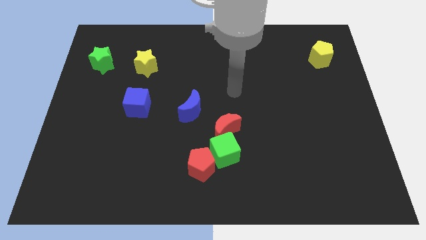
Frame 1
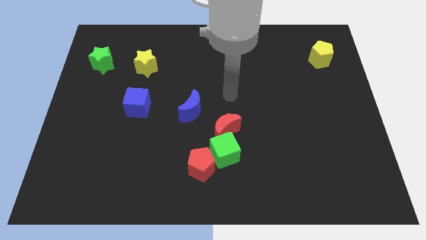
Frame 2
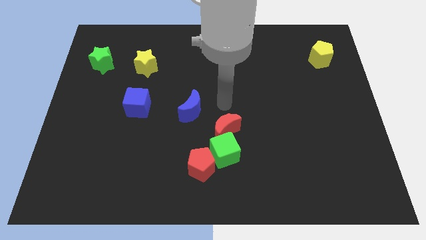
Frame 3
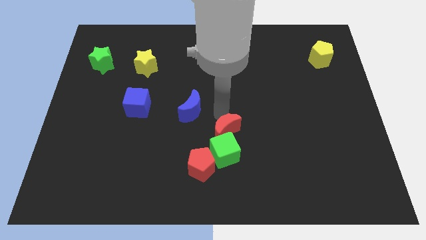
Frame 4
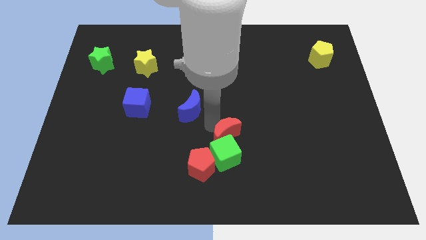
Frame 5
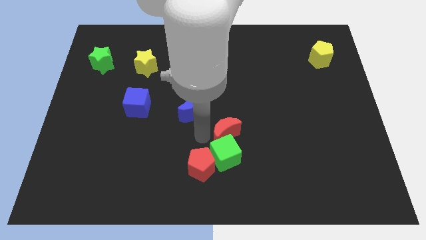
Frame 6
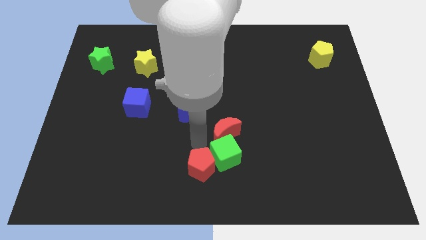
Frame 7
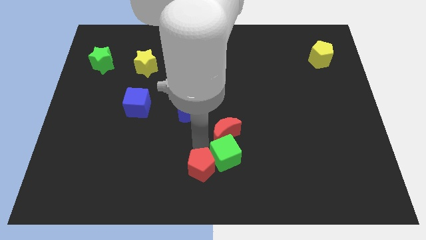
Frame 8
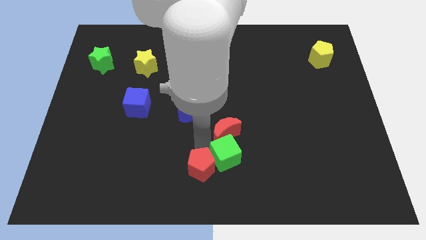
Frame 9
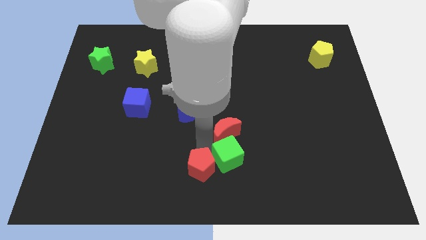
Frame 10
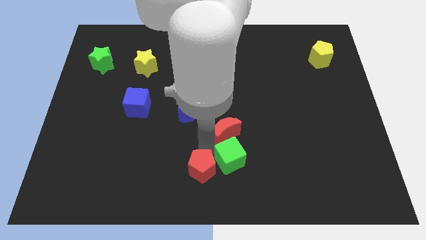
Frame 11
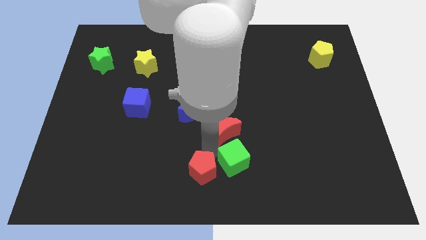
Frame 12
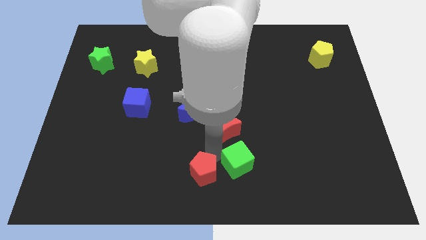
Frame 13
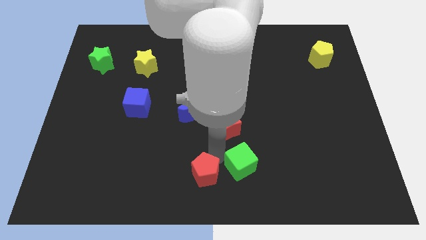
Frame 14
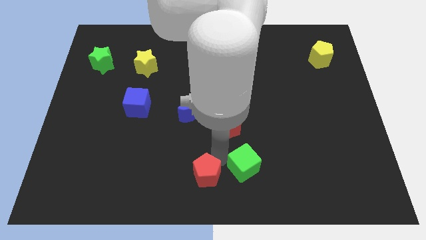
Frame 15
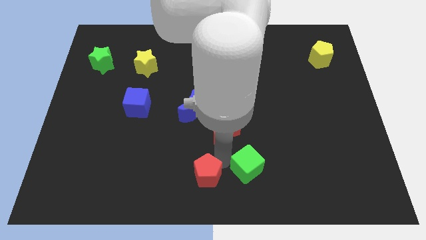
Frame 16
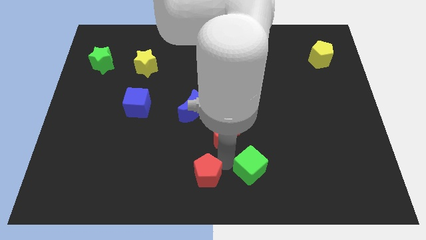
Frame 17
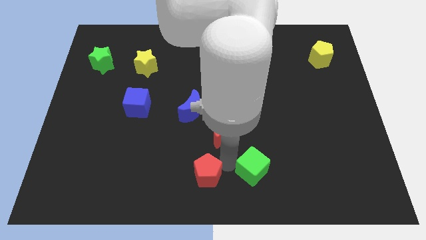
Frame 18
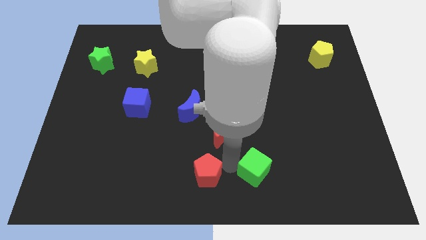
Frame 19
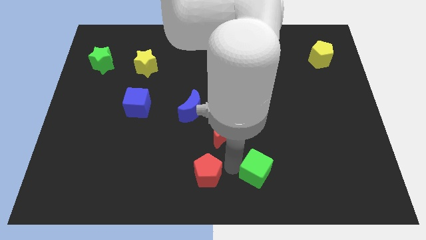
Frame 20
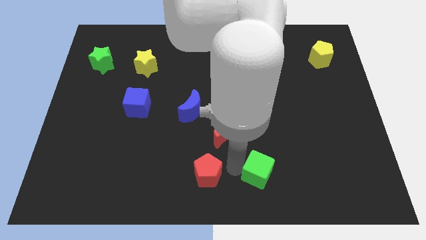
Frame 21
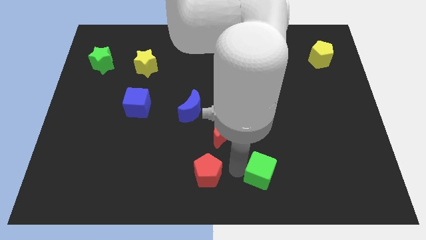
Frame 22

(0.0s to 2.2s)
pull the green cube apart from the red moon and red pentagon

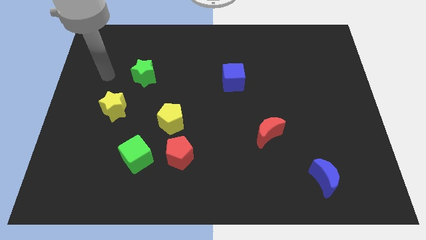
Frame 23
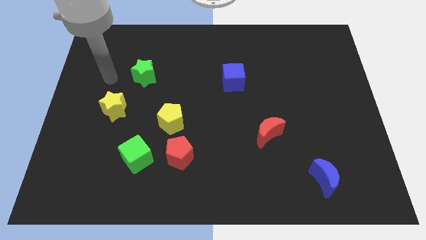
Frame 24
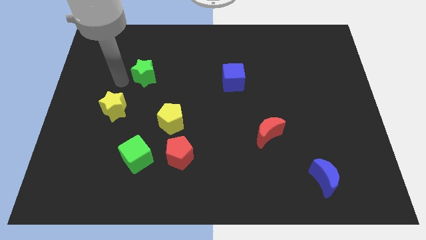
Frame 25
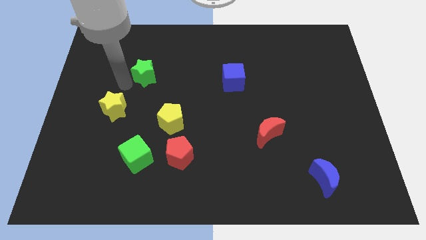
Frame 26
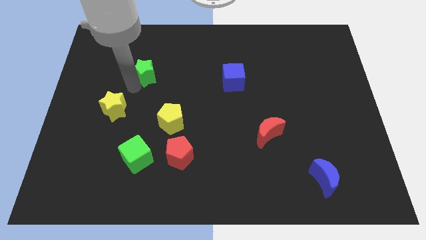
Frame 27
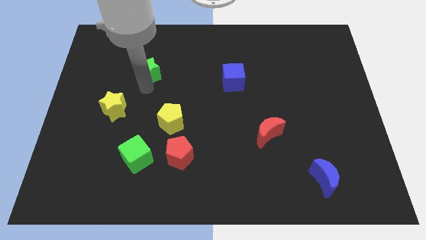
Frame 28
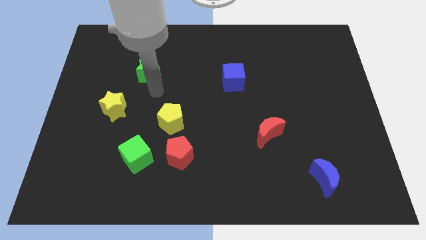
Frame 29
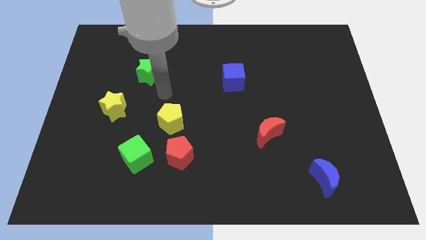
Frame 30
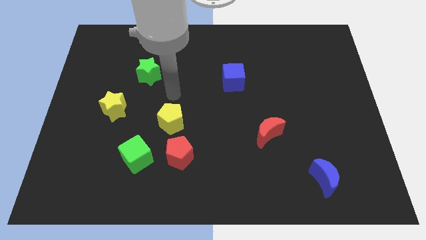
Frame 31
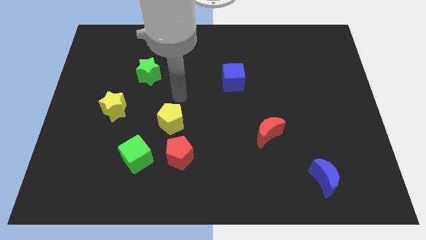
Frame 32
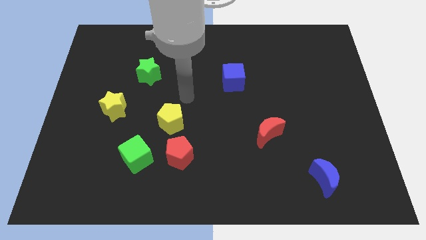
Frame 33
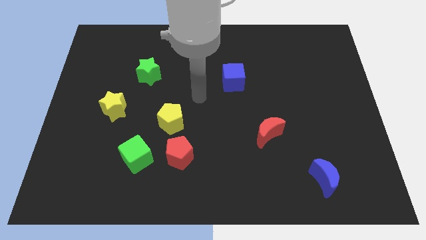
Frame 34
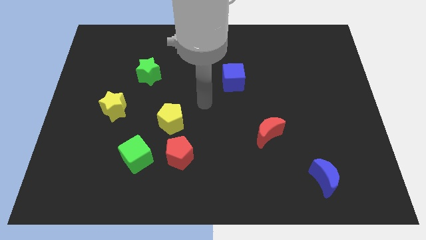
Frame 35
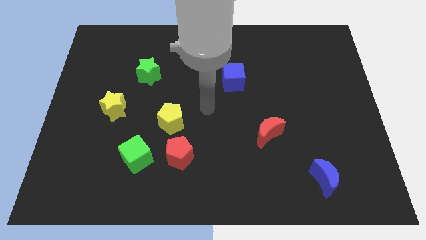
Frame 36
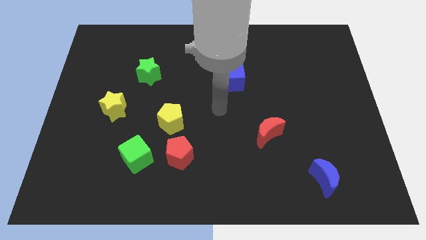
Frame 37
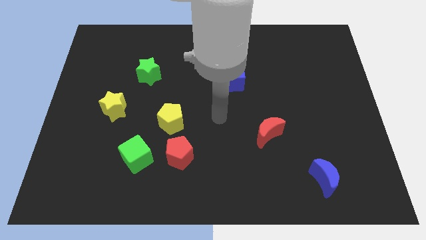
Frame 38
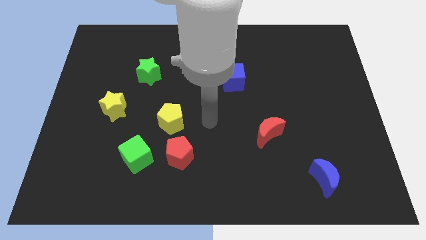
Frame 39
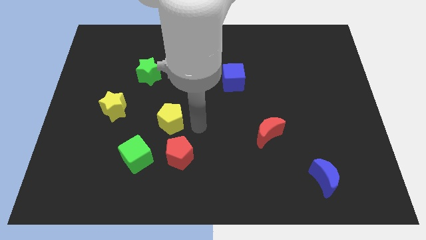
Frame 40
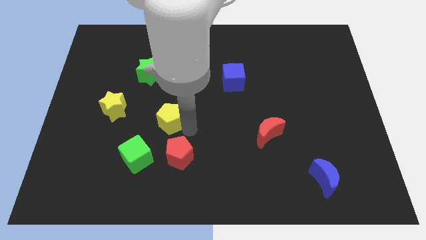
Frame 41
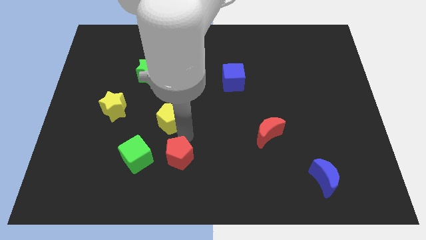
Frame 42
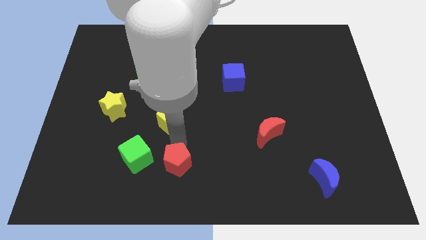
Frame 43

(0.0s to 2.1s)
pull the yellow pentagon apart from the red pentagon

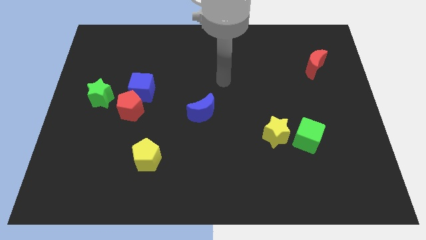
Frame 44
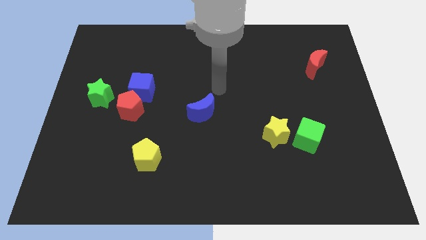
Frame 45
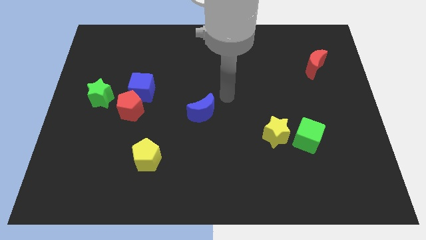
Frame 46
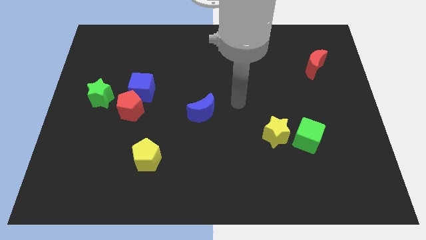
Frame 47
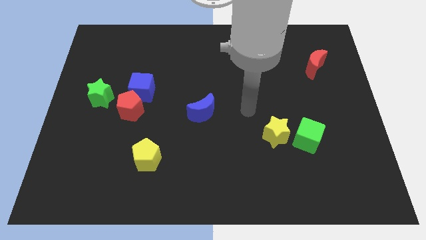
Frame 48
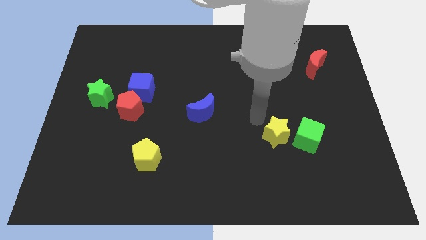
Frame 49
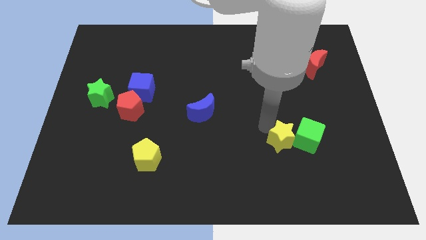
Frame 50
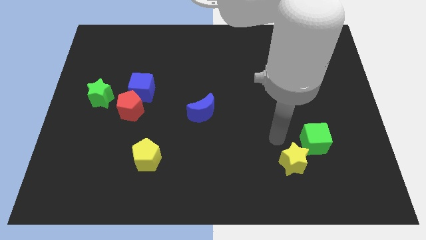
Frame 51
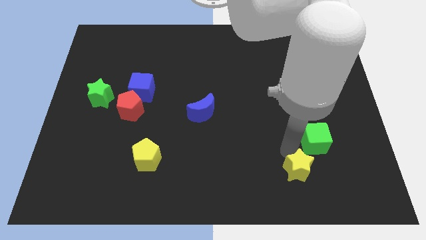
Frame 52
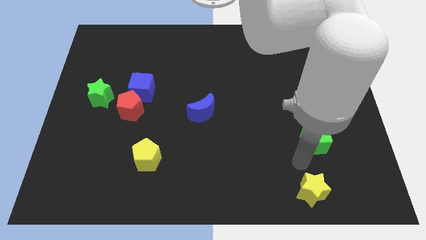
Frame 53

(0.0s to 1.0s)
separate the green cube from the yellow star

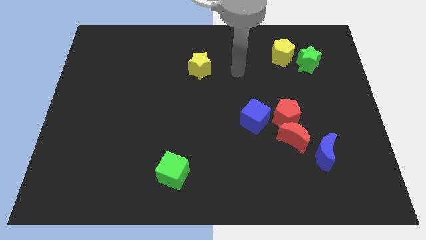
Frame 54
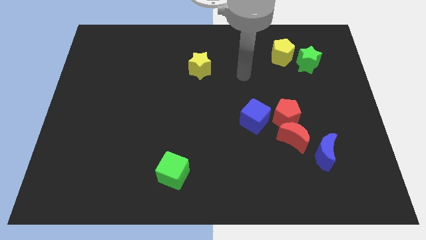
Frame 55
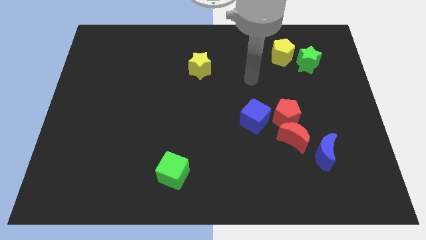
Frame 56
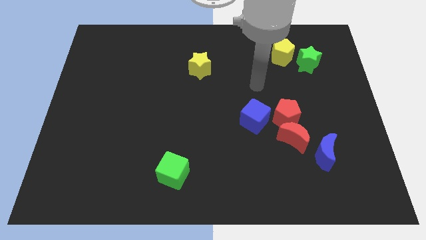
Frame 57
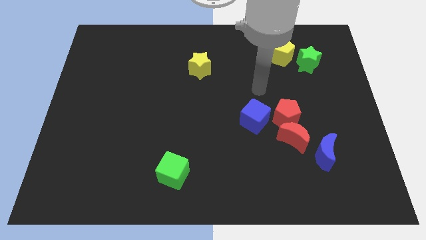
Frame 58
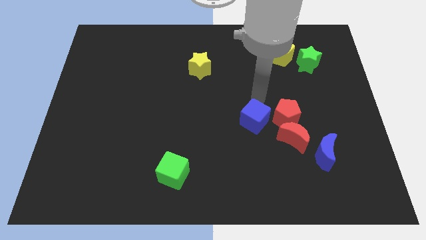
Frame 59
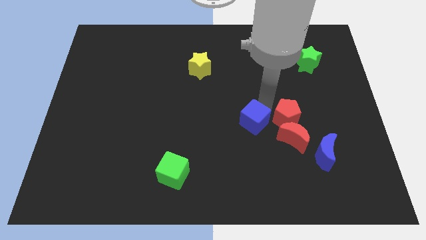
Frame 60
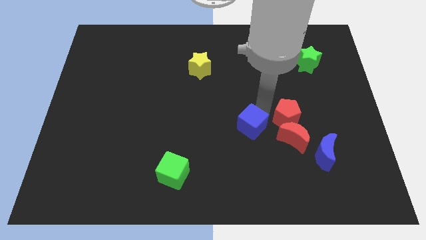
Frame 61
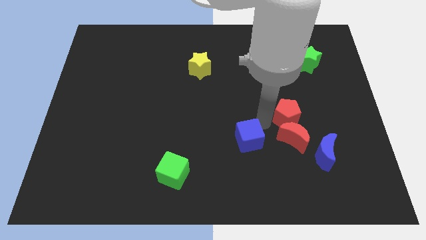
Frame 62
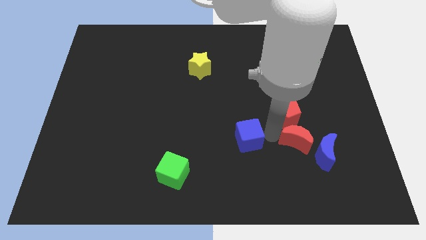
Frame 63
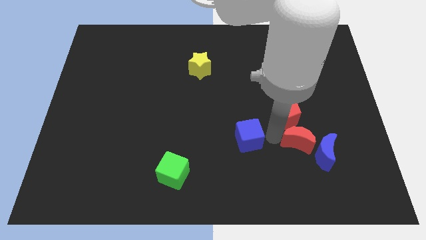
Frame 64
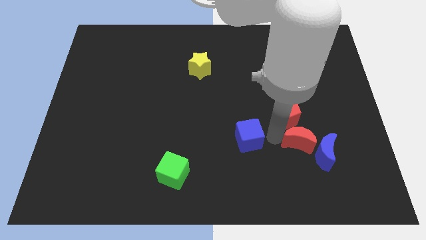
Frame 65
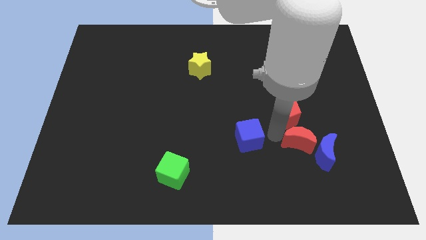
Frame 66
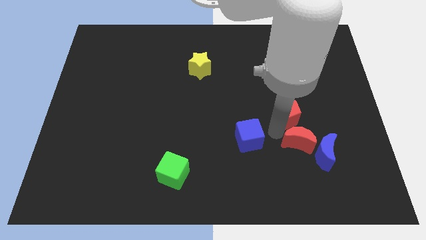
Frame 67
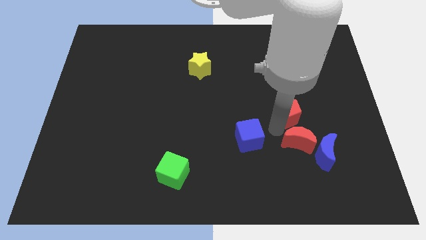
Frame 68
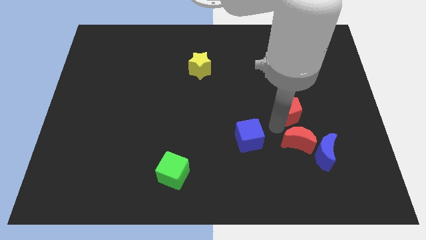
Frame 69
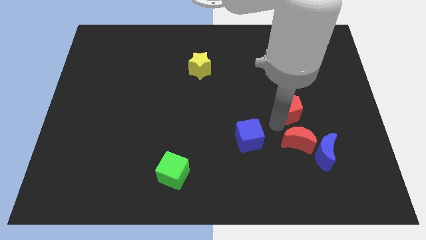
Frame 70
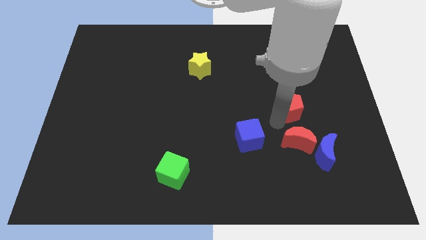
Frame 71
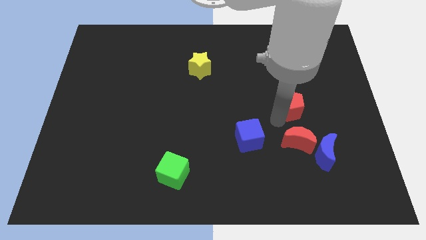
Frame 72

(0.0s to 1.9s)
move the red pentagon away from the red moon and blue cube

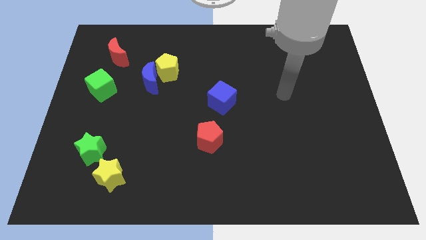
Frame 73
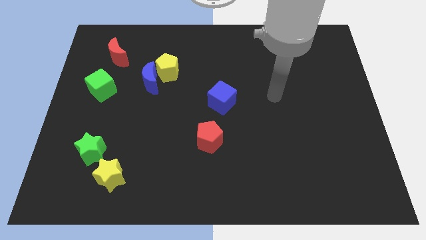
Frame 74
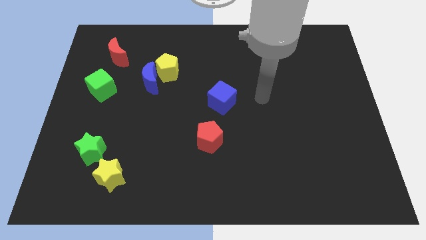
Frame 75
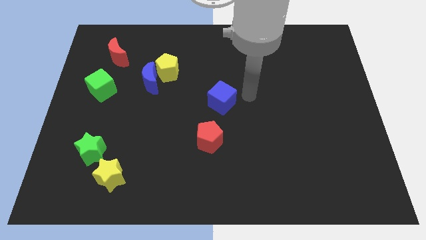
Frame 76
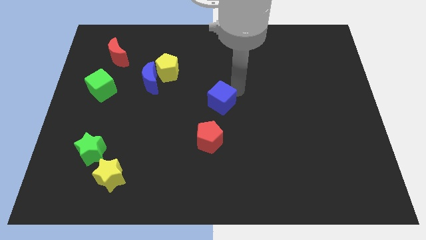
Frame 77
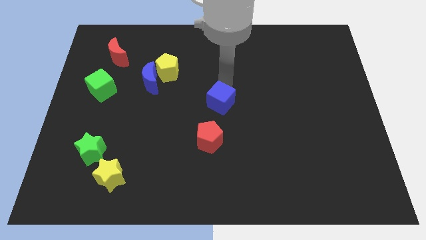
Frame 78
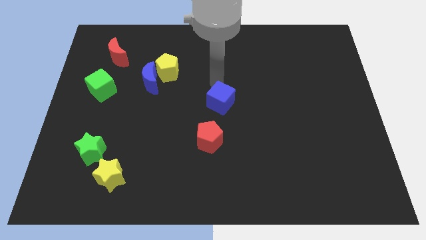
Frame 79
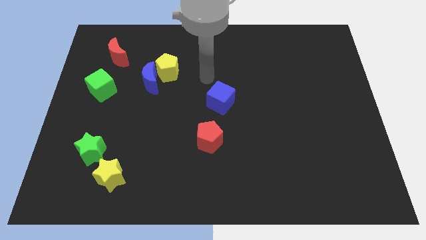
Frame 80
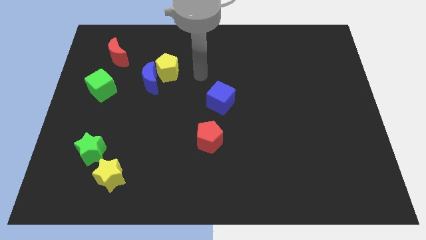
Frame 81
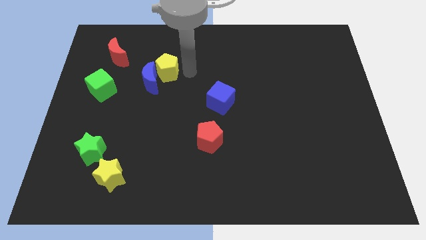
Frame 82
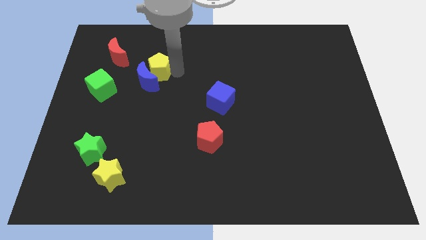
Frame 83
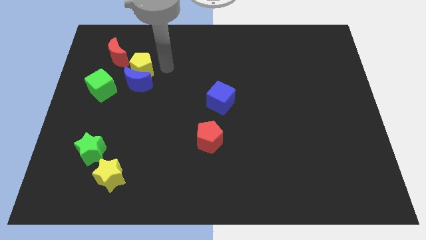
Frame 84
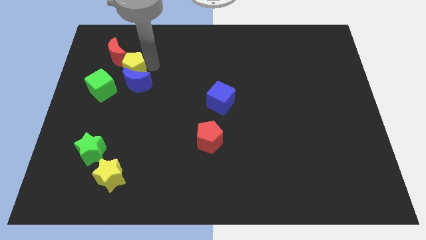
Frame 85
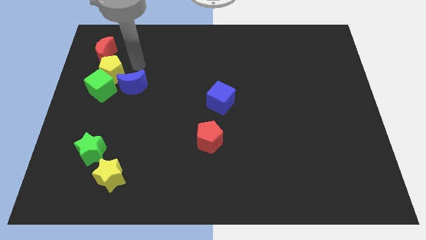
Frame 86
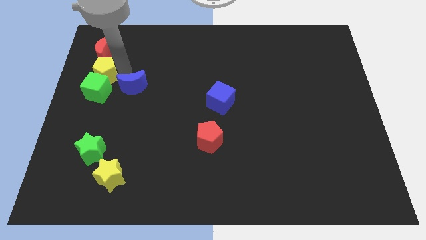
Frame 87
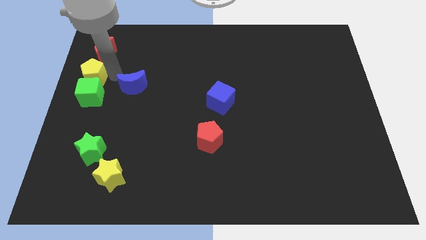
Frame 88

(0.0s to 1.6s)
pull the blue moon apart from the yellow pentagon

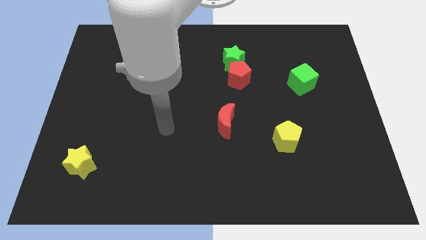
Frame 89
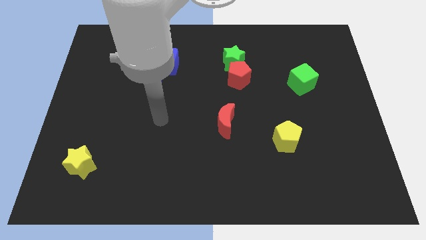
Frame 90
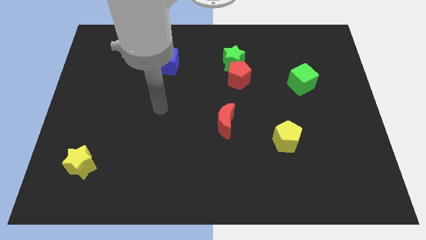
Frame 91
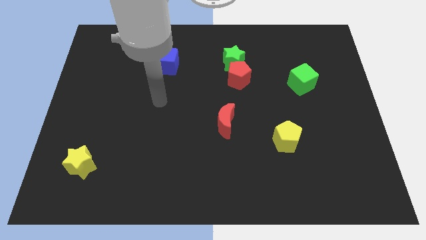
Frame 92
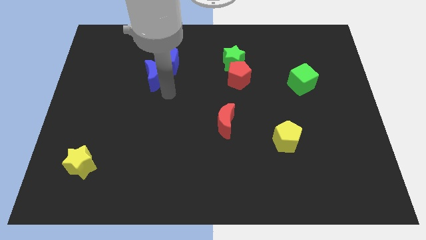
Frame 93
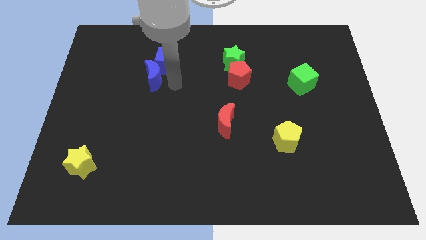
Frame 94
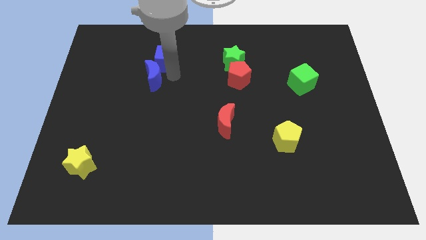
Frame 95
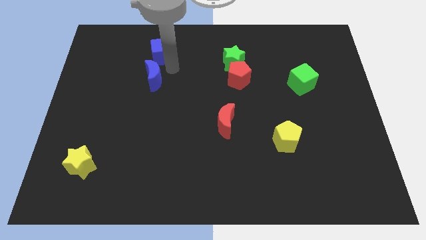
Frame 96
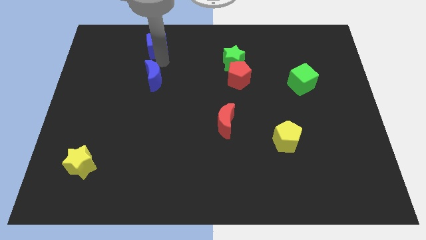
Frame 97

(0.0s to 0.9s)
pull the blue moon apart from the blue cube
